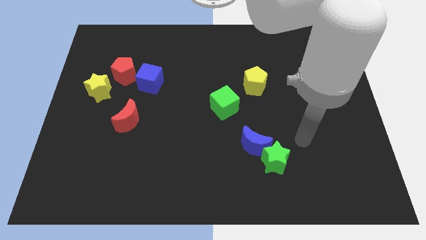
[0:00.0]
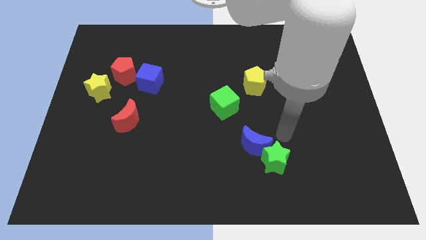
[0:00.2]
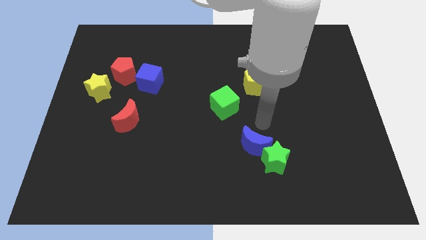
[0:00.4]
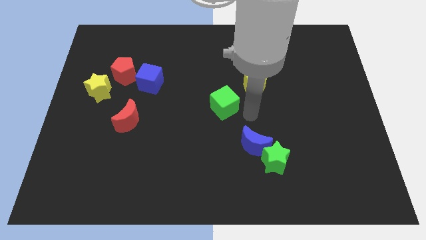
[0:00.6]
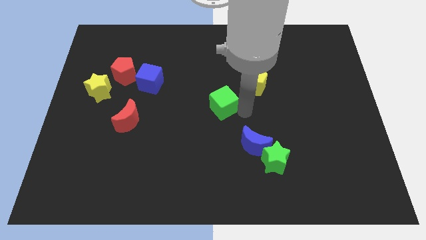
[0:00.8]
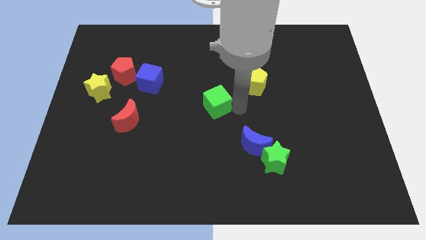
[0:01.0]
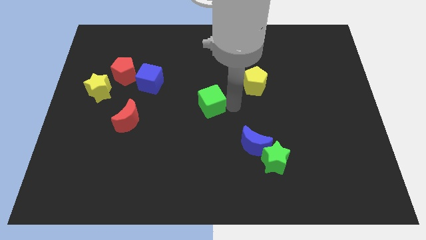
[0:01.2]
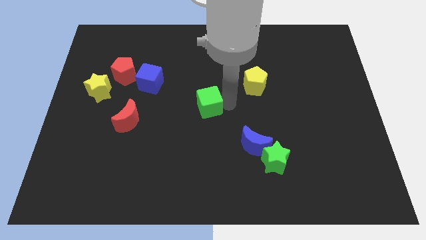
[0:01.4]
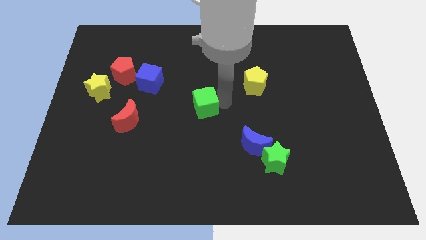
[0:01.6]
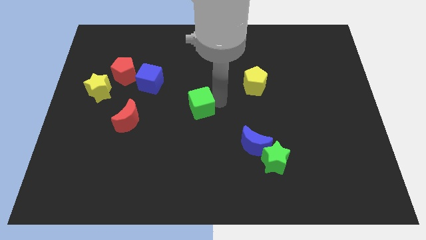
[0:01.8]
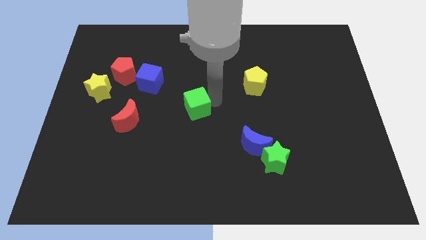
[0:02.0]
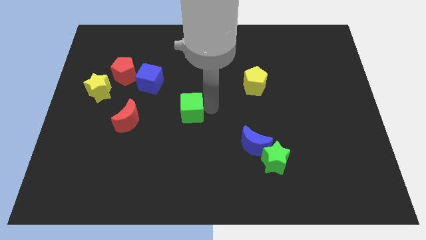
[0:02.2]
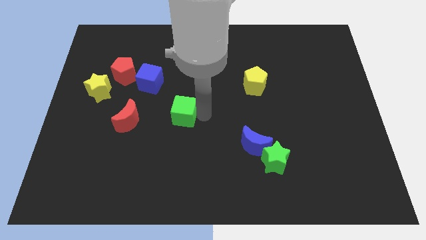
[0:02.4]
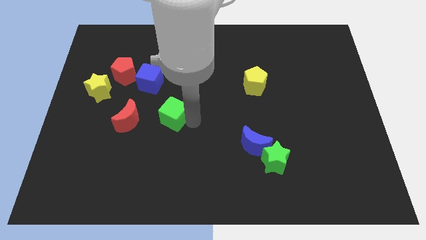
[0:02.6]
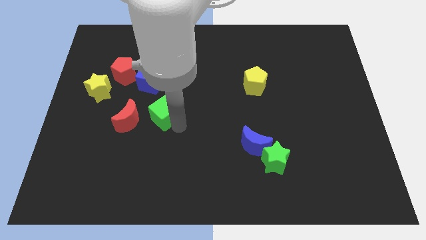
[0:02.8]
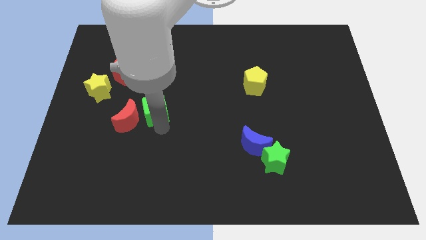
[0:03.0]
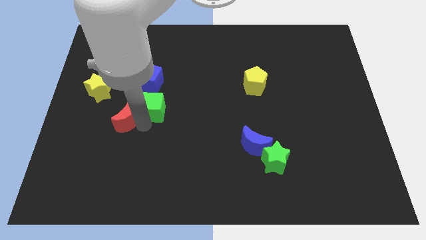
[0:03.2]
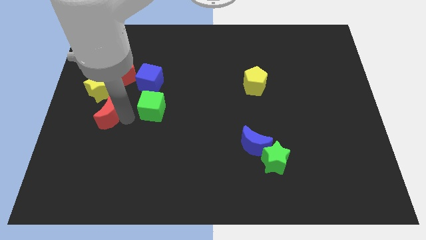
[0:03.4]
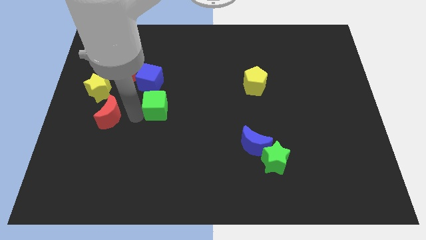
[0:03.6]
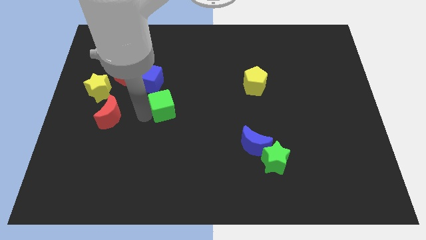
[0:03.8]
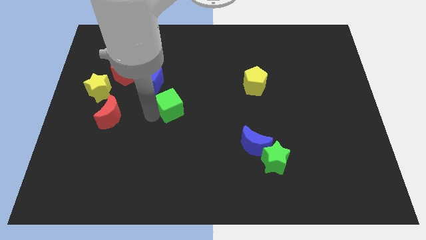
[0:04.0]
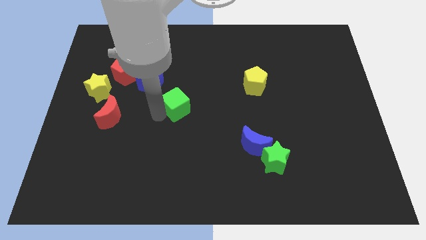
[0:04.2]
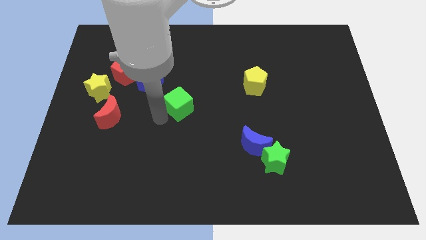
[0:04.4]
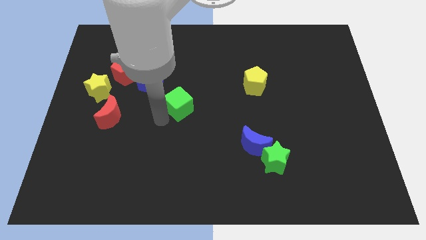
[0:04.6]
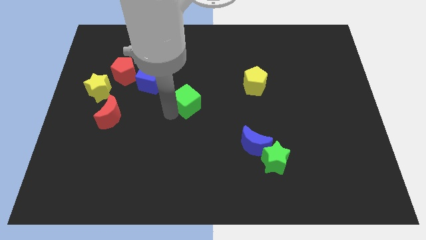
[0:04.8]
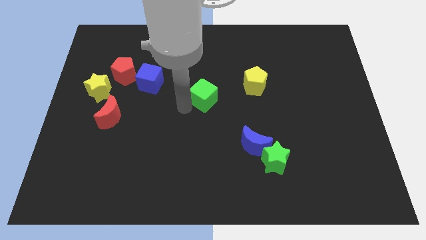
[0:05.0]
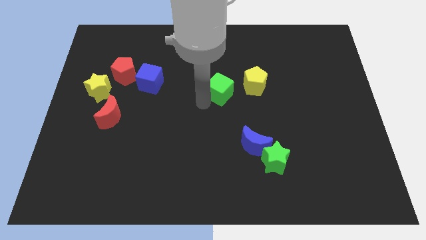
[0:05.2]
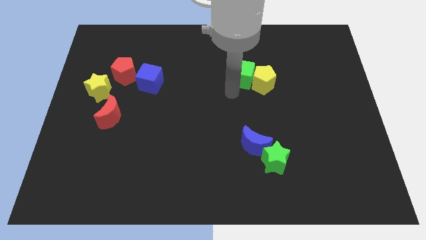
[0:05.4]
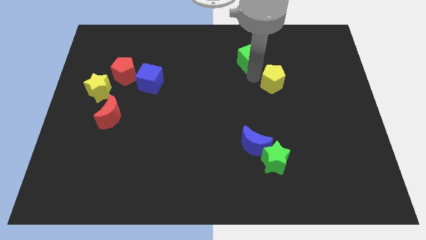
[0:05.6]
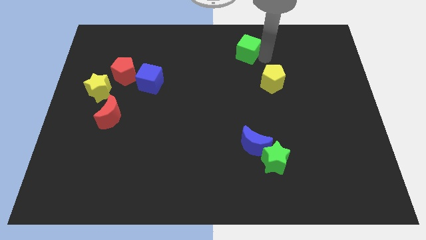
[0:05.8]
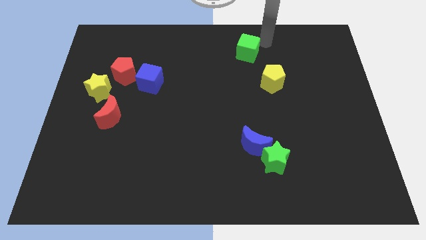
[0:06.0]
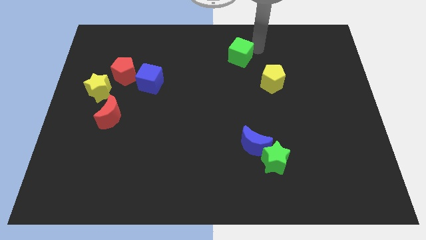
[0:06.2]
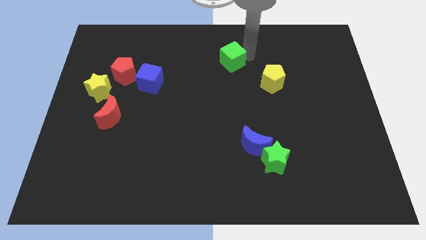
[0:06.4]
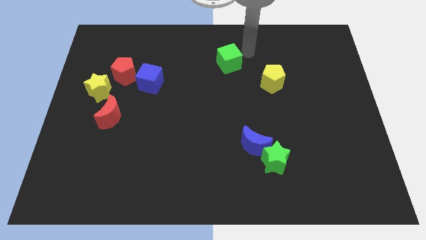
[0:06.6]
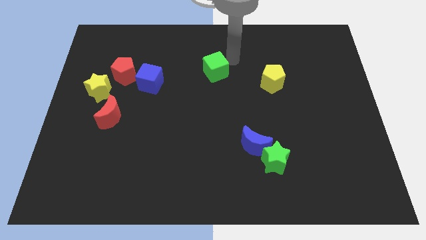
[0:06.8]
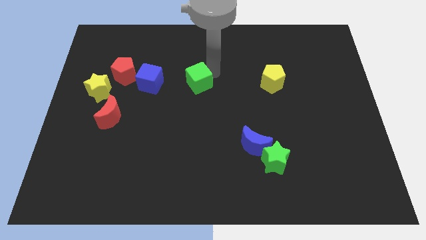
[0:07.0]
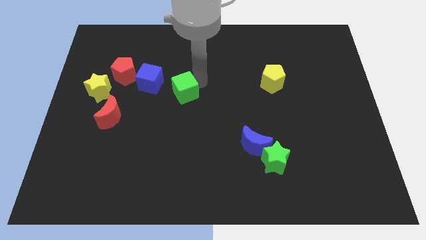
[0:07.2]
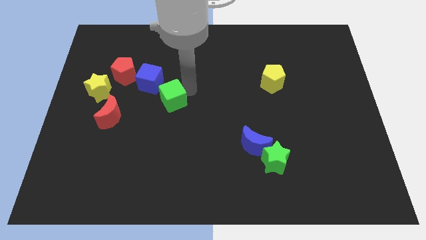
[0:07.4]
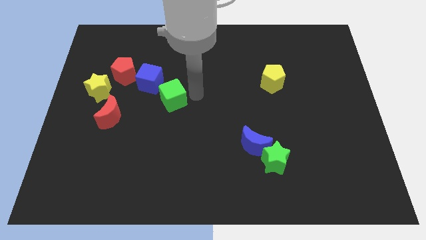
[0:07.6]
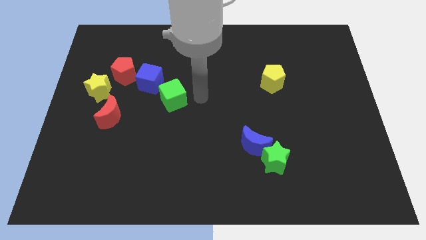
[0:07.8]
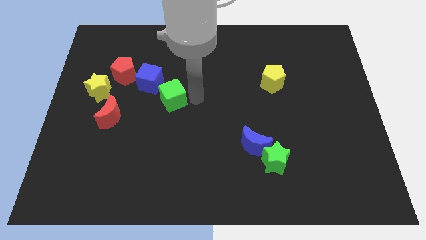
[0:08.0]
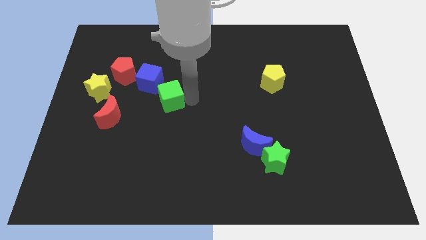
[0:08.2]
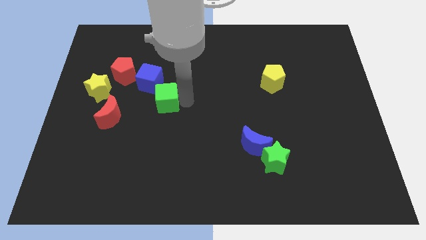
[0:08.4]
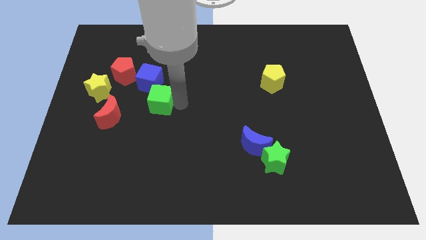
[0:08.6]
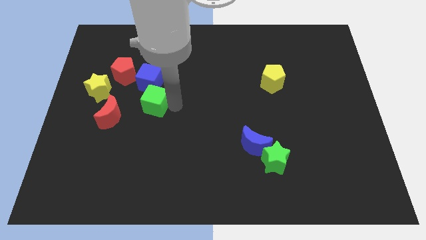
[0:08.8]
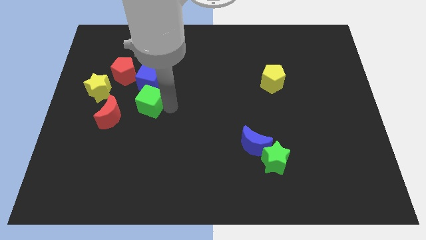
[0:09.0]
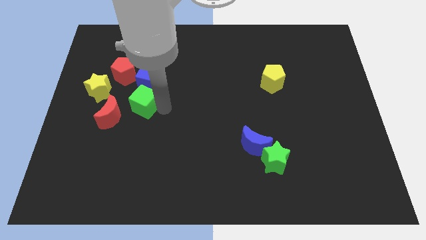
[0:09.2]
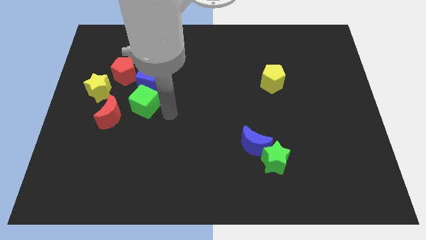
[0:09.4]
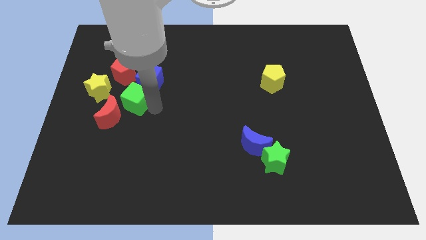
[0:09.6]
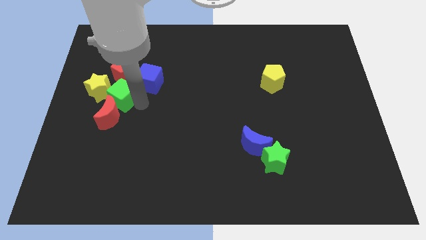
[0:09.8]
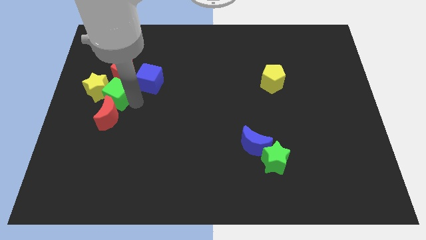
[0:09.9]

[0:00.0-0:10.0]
slide the green cube to the yellow star

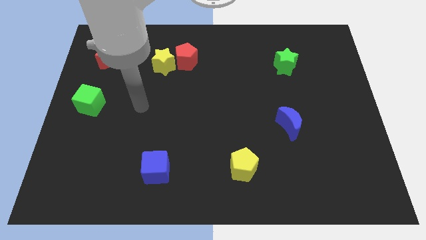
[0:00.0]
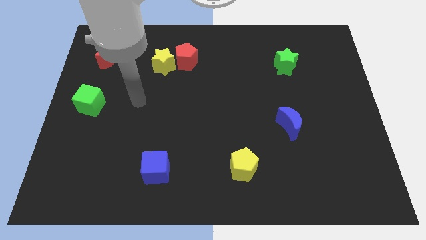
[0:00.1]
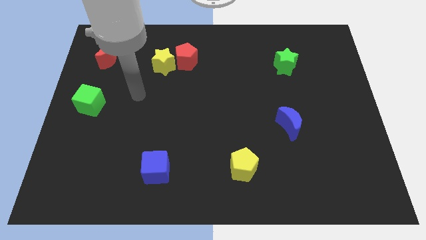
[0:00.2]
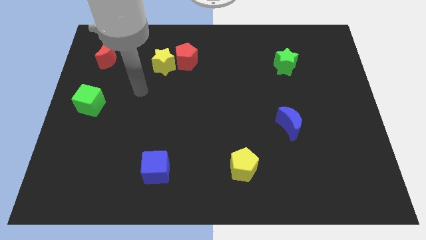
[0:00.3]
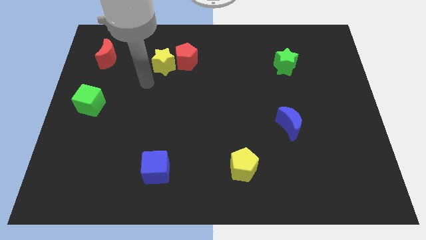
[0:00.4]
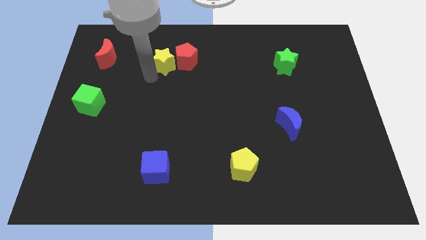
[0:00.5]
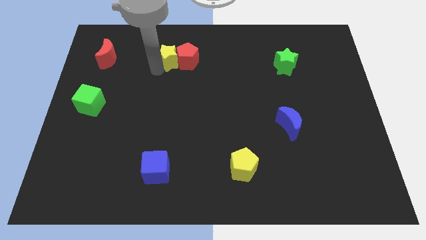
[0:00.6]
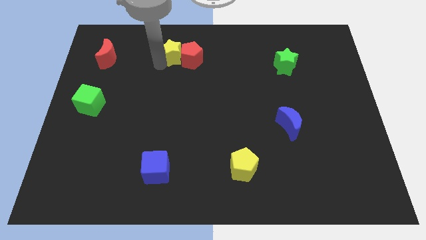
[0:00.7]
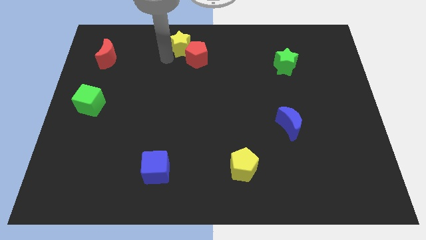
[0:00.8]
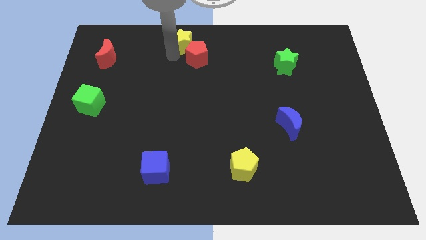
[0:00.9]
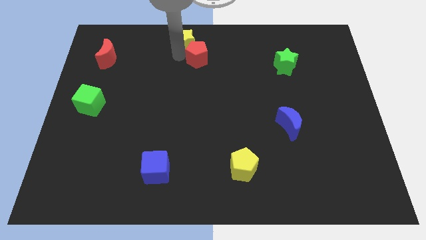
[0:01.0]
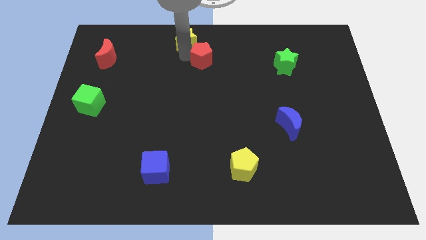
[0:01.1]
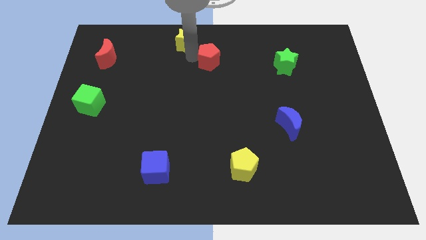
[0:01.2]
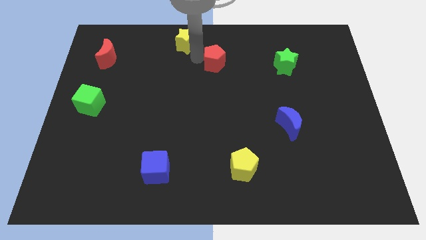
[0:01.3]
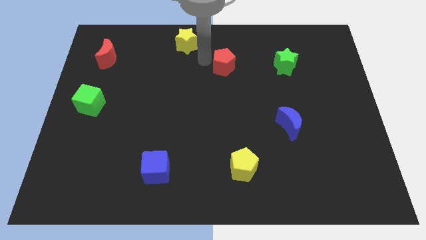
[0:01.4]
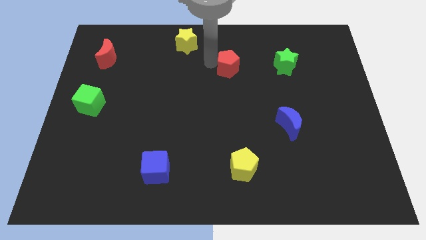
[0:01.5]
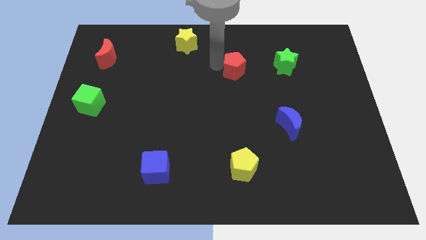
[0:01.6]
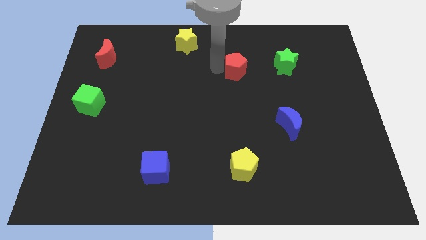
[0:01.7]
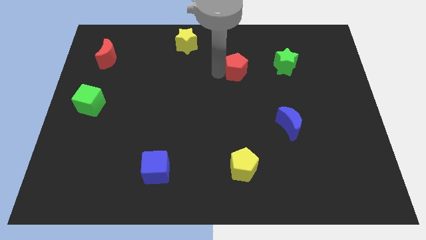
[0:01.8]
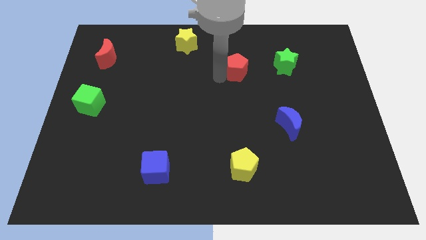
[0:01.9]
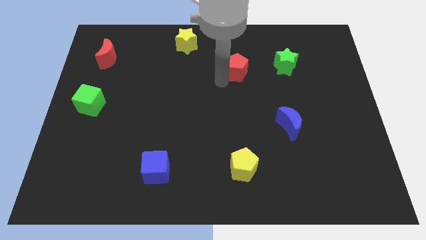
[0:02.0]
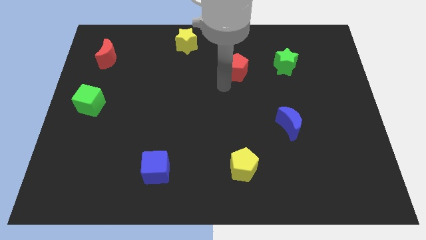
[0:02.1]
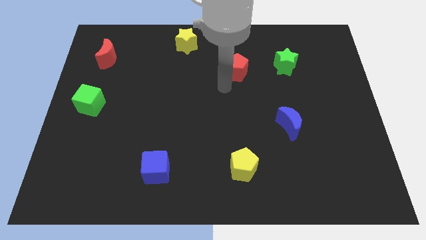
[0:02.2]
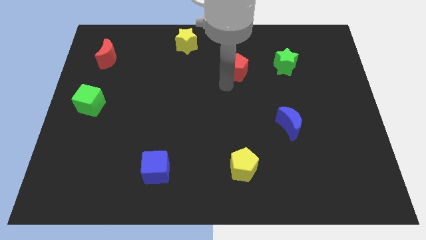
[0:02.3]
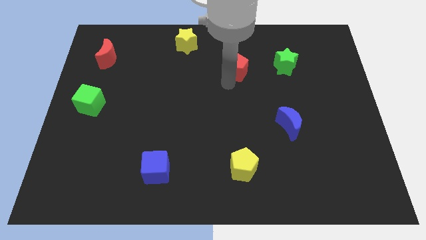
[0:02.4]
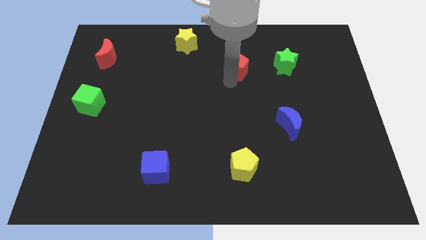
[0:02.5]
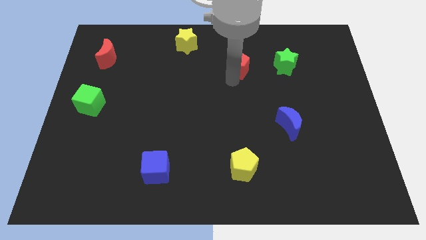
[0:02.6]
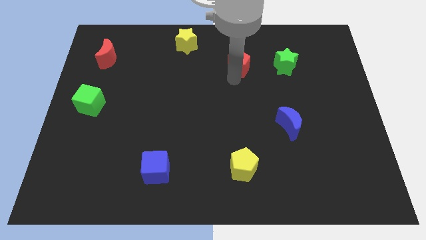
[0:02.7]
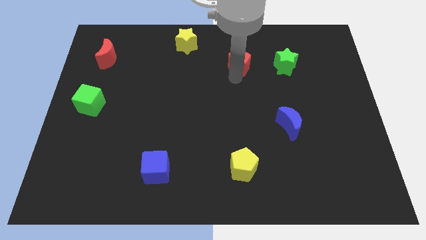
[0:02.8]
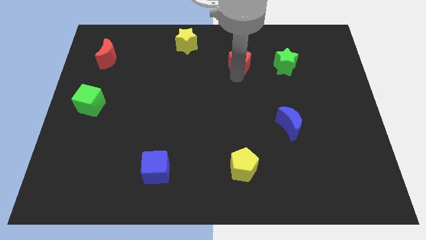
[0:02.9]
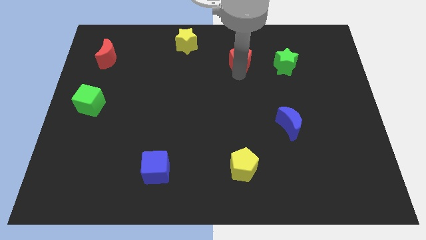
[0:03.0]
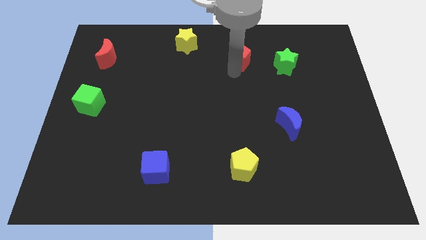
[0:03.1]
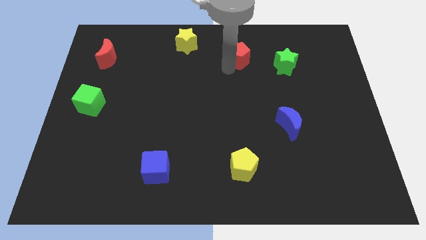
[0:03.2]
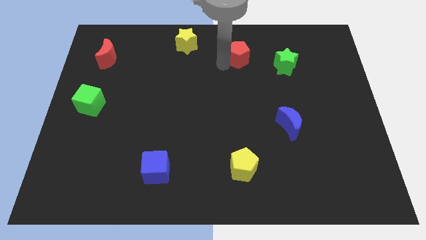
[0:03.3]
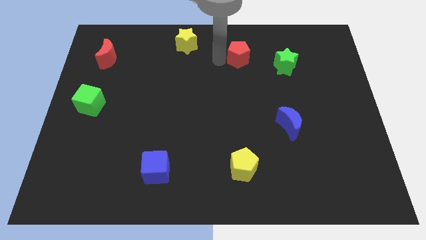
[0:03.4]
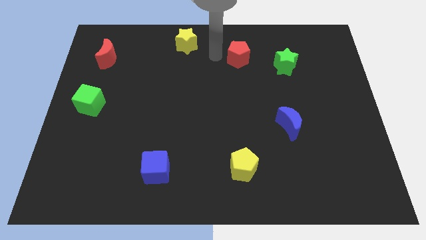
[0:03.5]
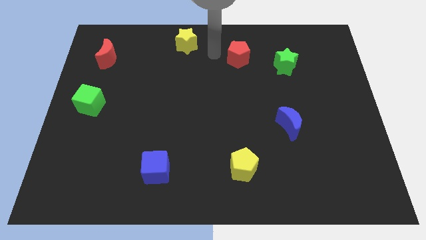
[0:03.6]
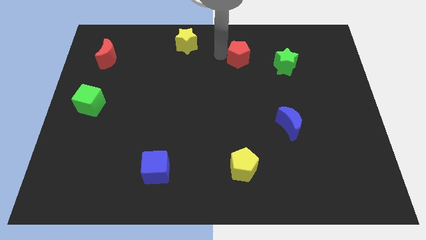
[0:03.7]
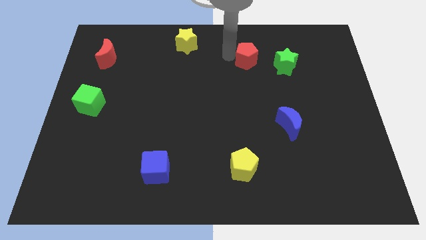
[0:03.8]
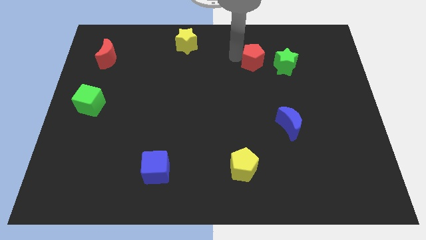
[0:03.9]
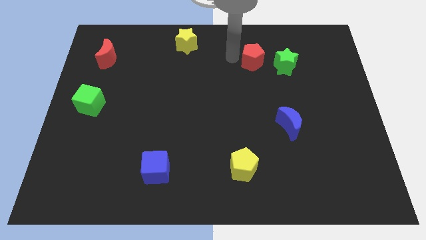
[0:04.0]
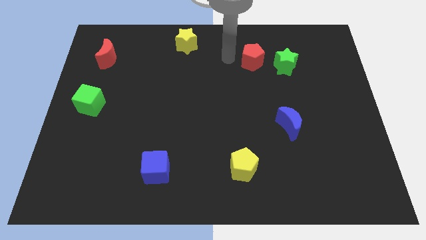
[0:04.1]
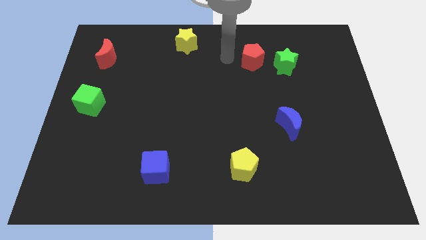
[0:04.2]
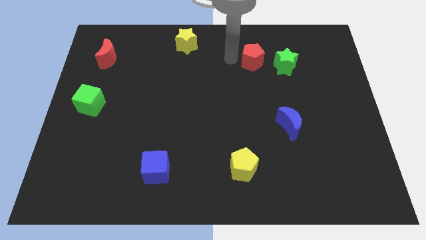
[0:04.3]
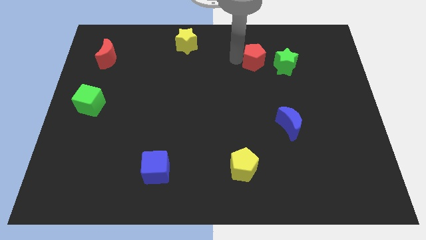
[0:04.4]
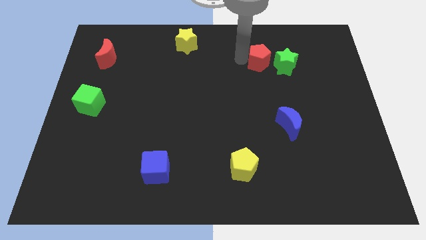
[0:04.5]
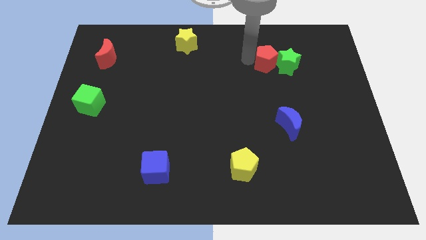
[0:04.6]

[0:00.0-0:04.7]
put the red pentagon to the green star
